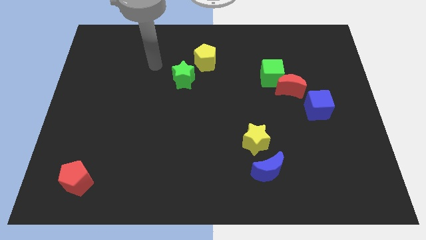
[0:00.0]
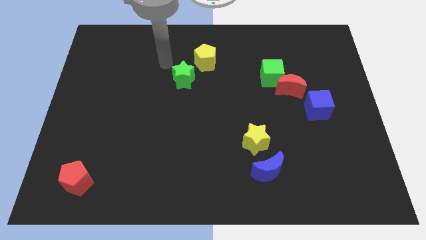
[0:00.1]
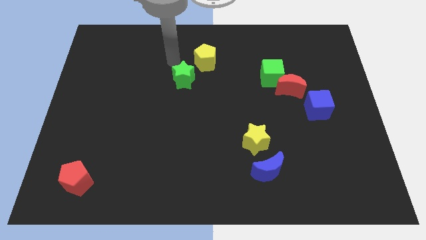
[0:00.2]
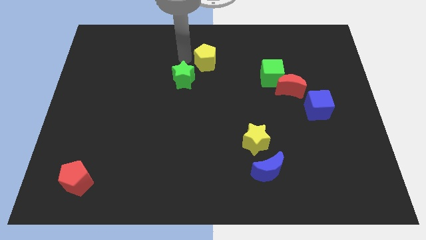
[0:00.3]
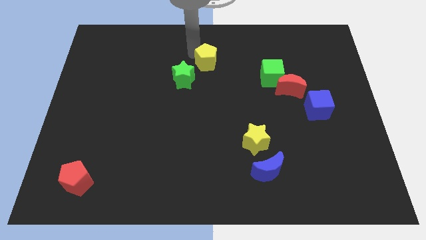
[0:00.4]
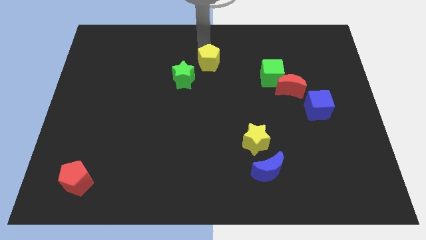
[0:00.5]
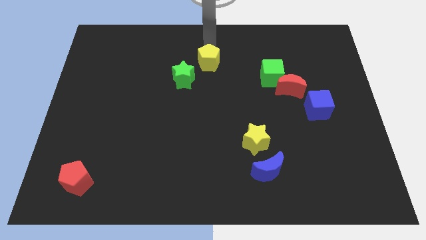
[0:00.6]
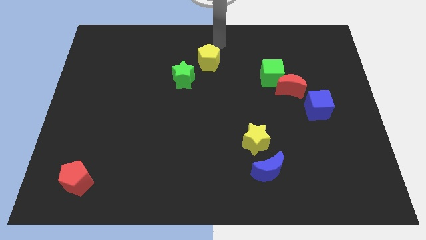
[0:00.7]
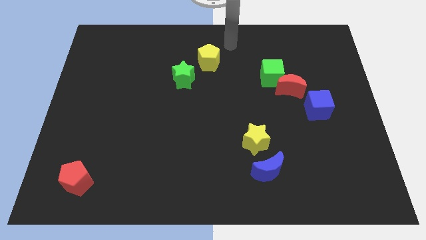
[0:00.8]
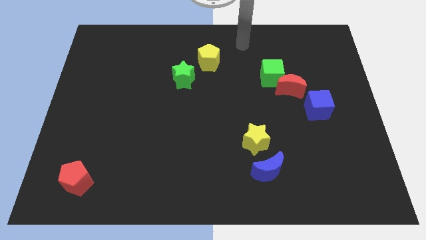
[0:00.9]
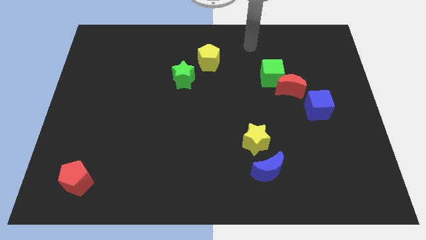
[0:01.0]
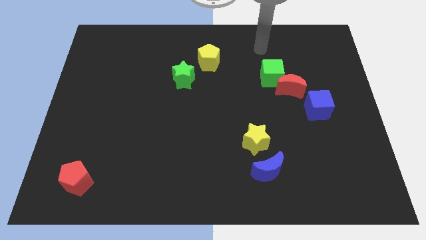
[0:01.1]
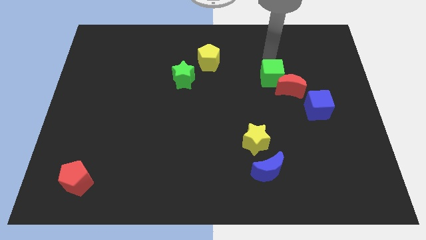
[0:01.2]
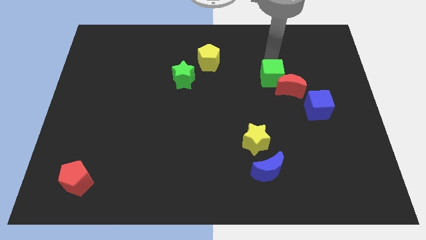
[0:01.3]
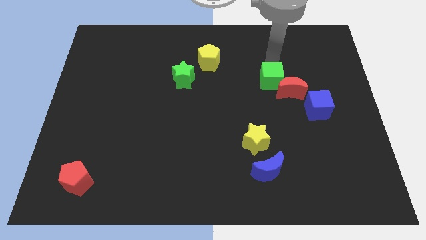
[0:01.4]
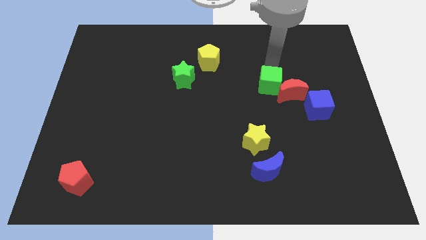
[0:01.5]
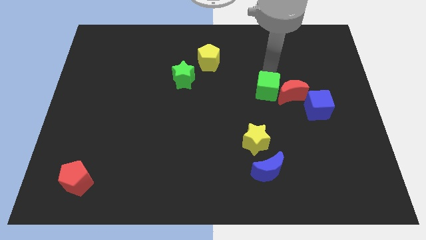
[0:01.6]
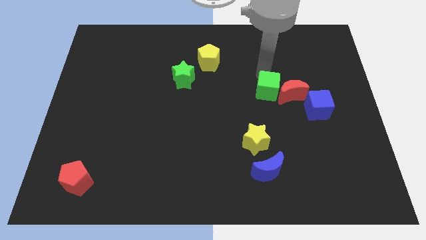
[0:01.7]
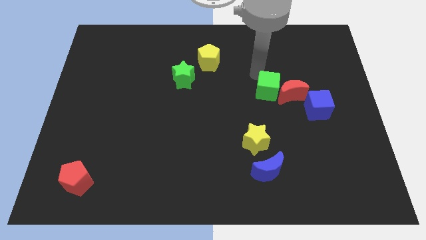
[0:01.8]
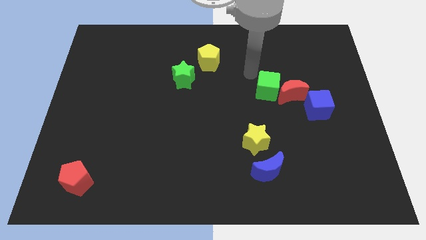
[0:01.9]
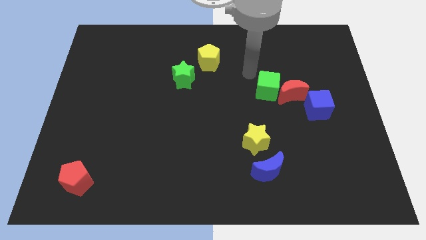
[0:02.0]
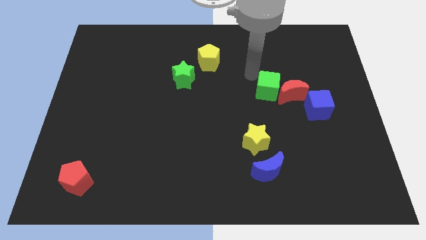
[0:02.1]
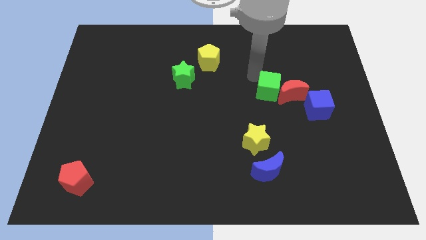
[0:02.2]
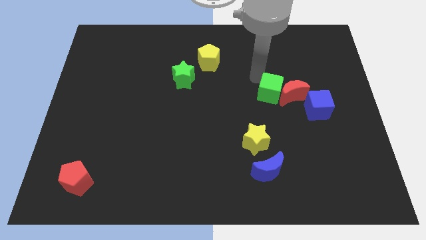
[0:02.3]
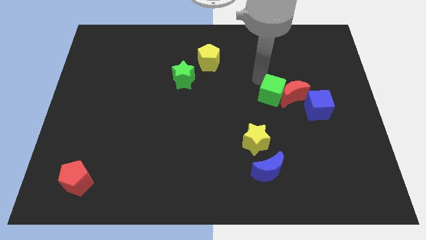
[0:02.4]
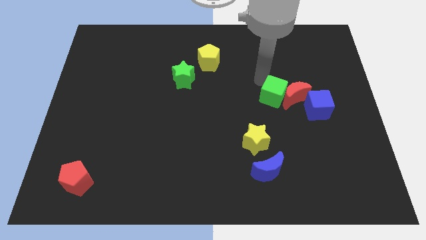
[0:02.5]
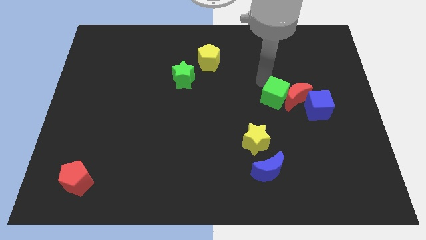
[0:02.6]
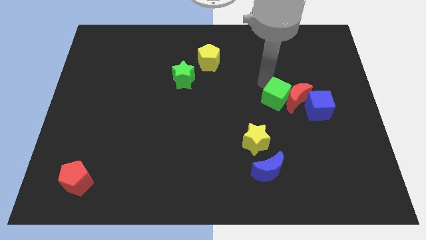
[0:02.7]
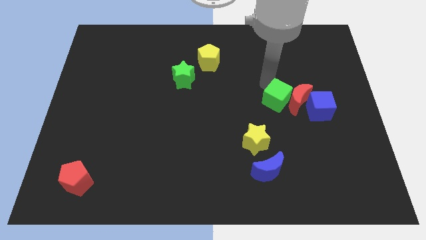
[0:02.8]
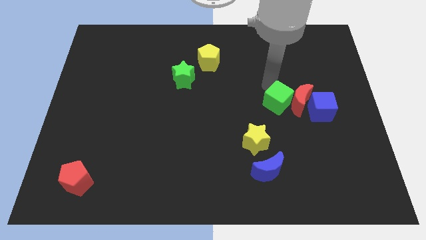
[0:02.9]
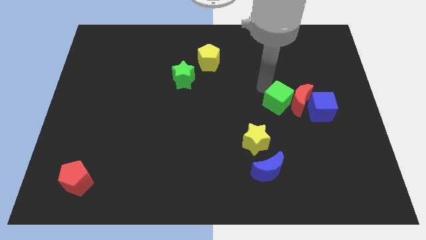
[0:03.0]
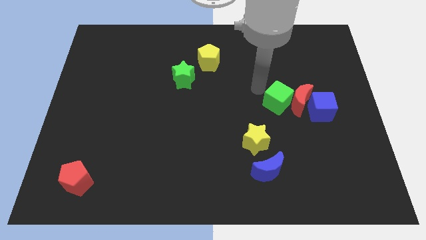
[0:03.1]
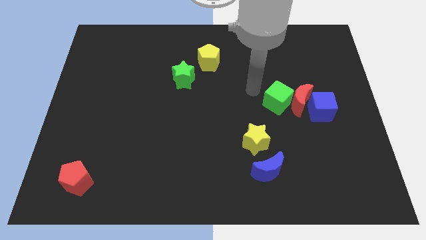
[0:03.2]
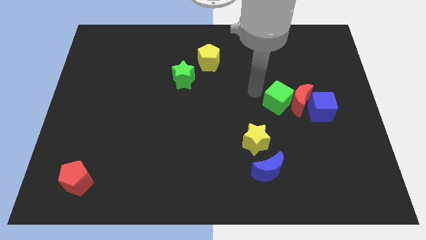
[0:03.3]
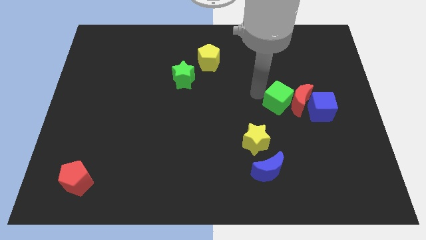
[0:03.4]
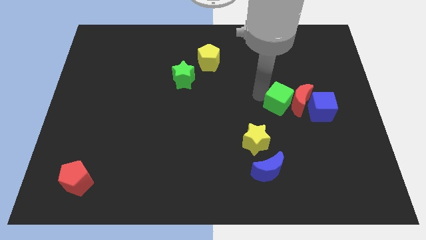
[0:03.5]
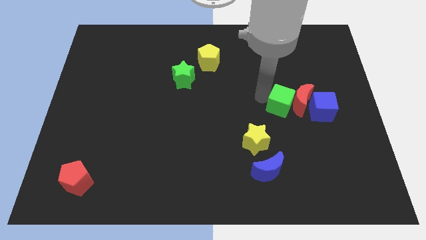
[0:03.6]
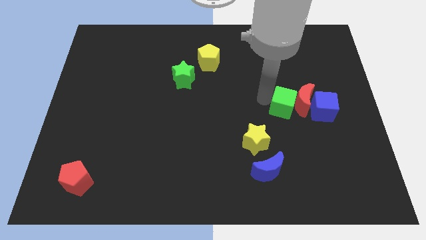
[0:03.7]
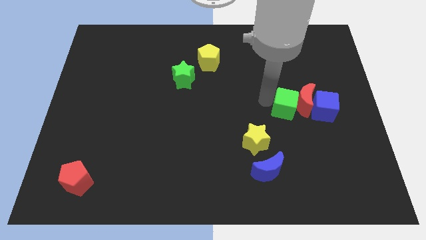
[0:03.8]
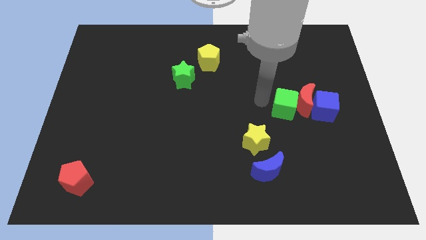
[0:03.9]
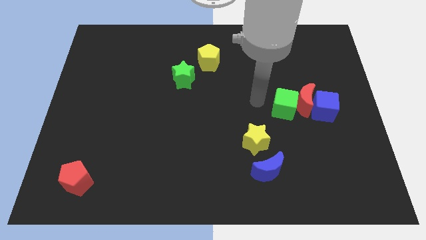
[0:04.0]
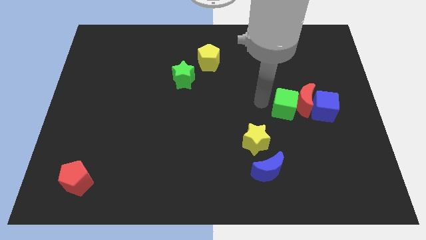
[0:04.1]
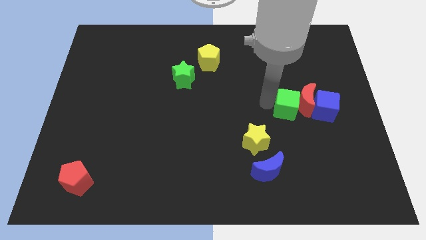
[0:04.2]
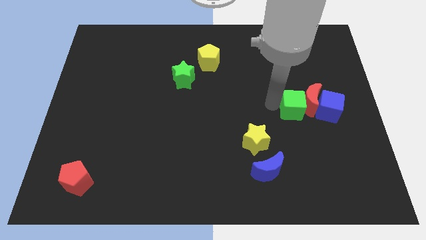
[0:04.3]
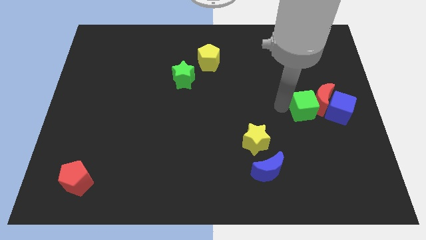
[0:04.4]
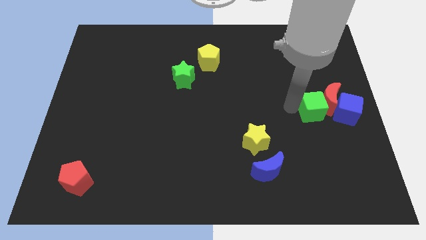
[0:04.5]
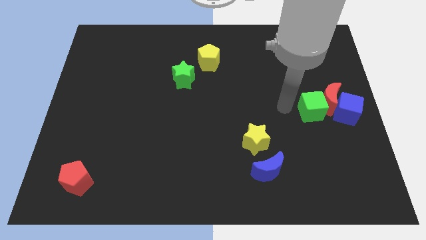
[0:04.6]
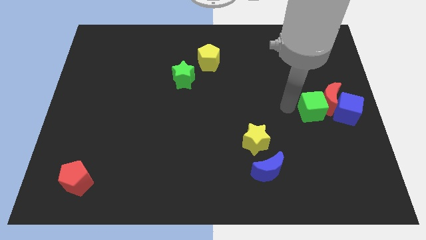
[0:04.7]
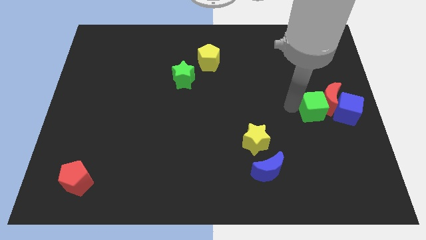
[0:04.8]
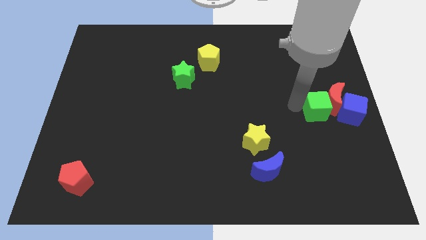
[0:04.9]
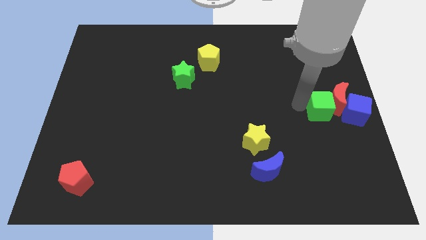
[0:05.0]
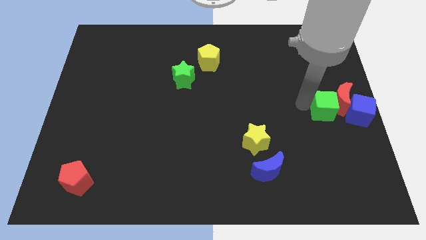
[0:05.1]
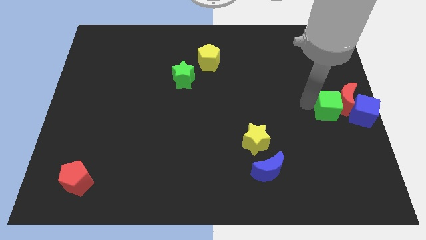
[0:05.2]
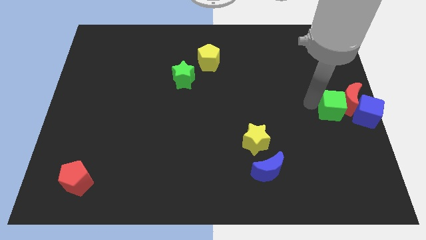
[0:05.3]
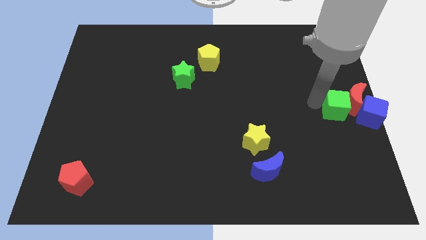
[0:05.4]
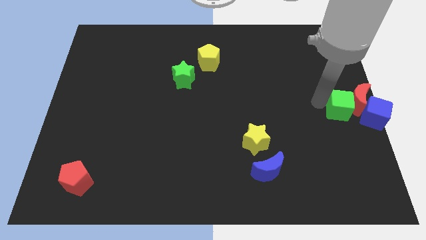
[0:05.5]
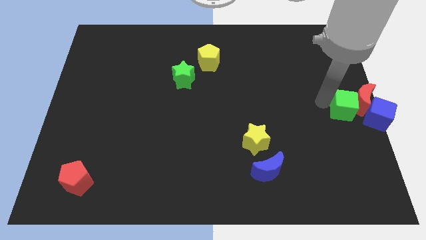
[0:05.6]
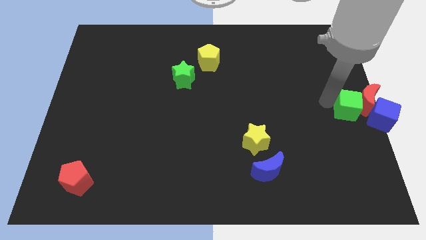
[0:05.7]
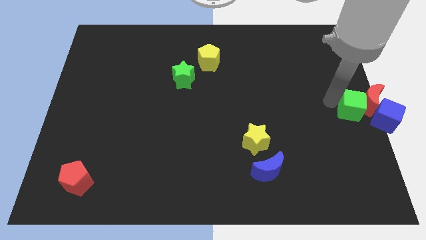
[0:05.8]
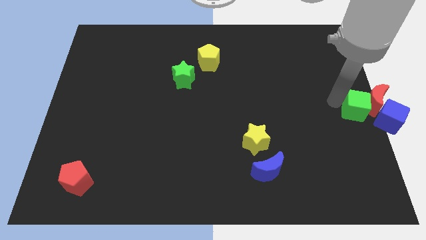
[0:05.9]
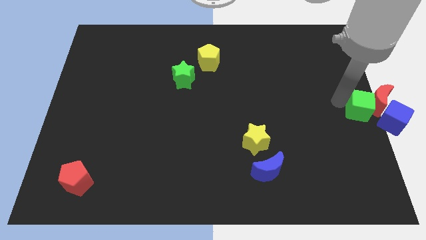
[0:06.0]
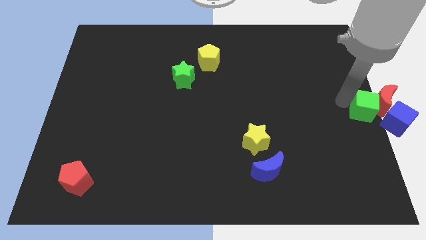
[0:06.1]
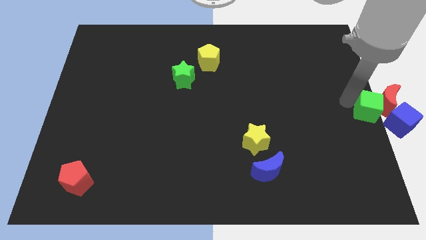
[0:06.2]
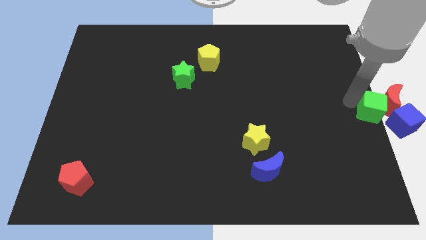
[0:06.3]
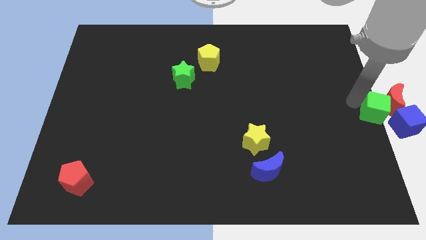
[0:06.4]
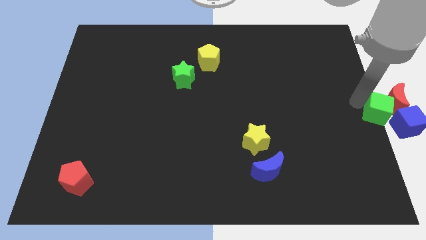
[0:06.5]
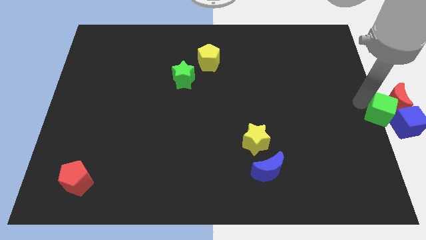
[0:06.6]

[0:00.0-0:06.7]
push the green cube next to the blue cube

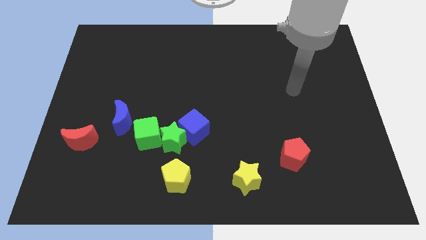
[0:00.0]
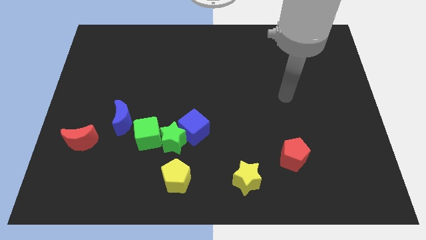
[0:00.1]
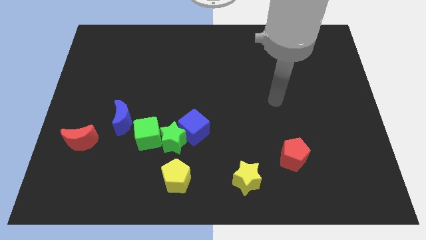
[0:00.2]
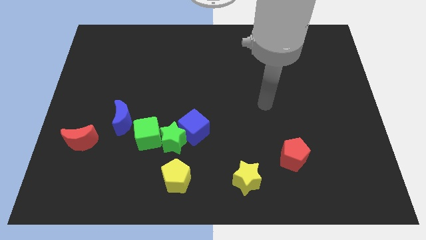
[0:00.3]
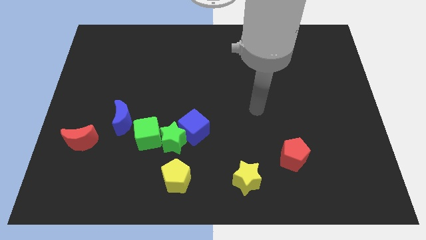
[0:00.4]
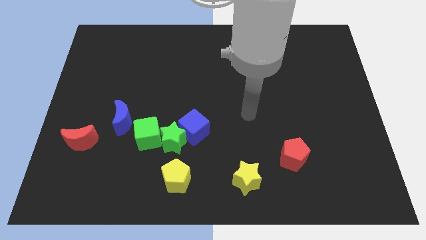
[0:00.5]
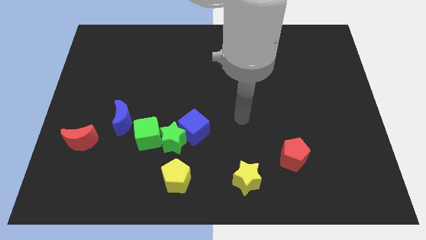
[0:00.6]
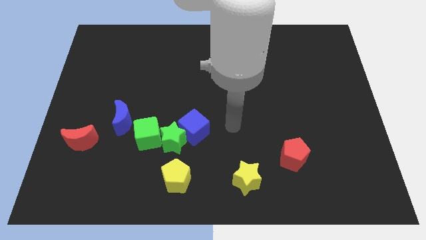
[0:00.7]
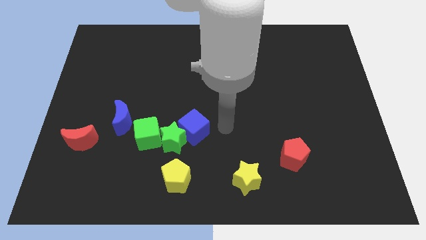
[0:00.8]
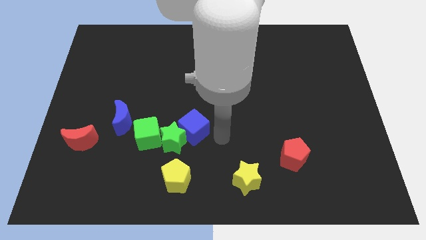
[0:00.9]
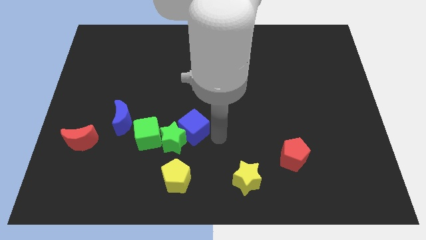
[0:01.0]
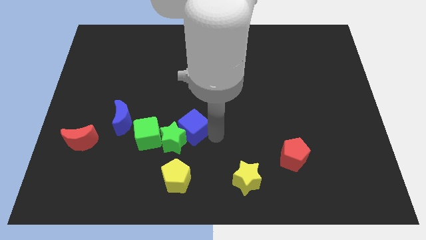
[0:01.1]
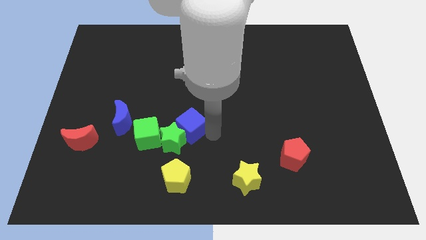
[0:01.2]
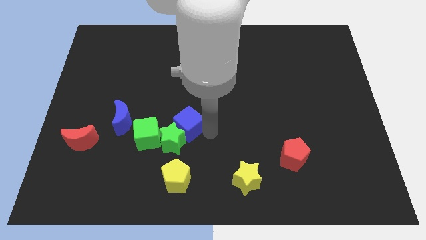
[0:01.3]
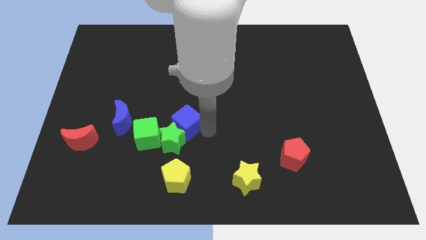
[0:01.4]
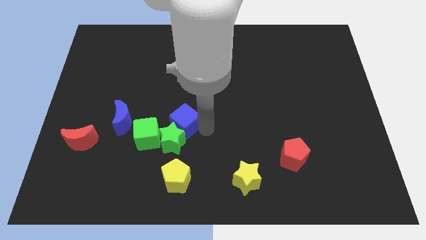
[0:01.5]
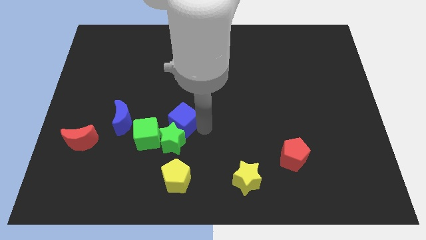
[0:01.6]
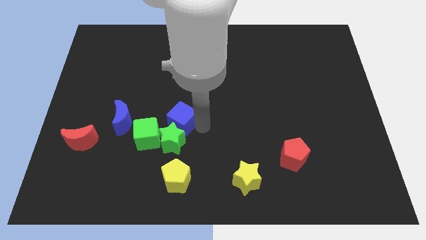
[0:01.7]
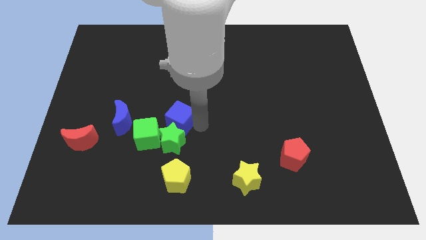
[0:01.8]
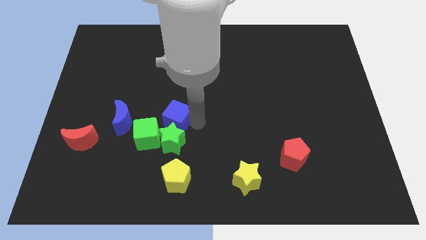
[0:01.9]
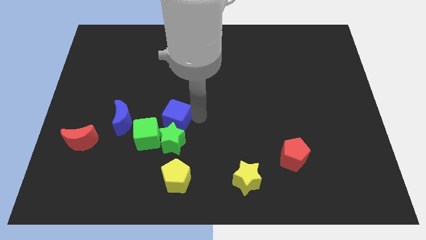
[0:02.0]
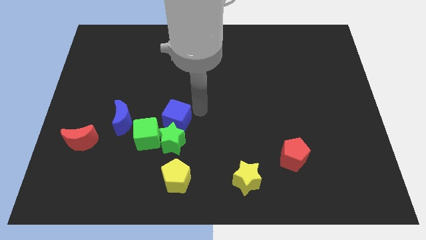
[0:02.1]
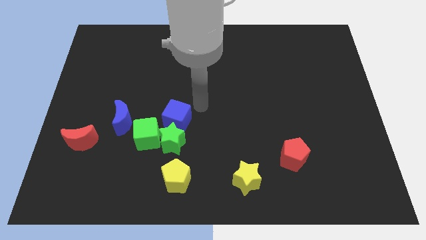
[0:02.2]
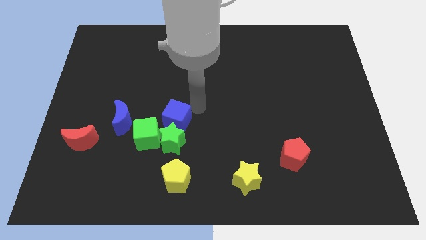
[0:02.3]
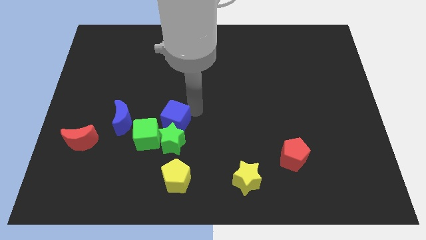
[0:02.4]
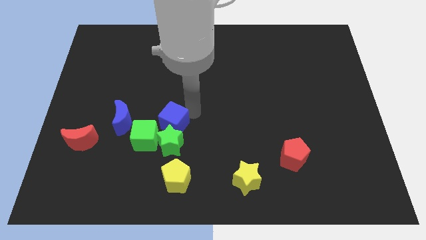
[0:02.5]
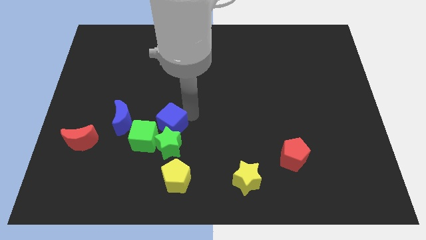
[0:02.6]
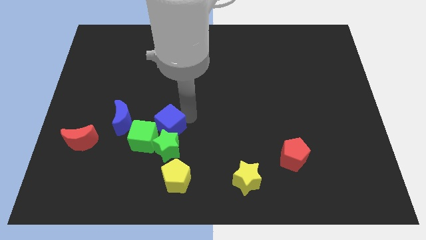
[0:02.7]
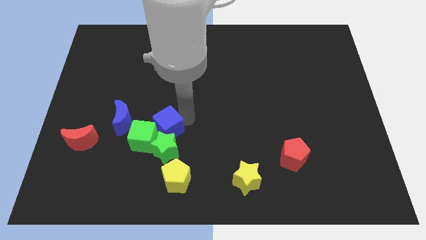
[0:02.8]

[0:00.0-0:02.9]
push the blue cube close to the green cube
